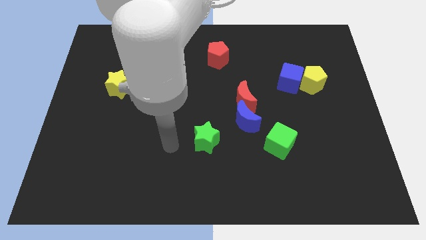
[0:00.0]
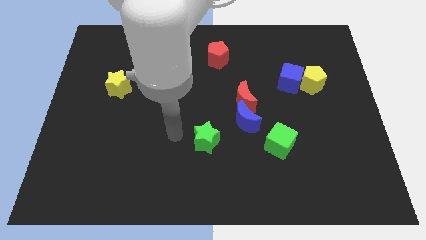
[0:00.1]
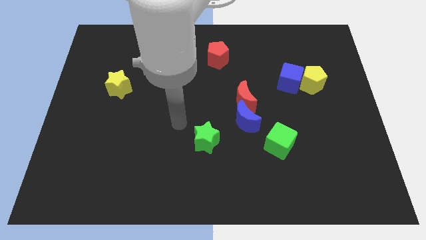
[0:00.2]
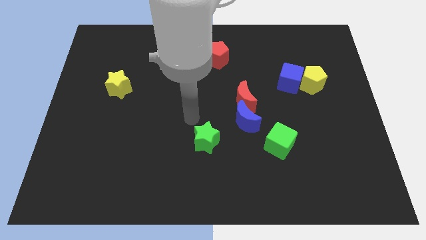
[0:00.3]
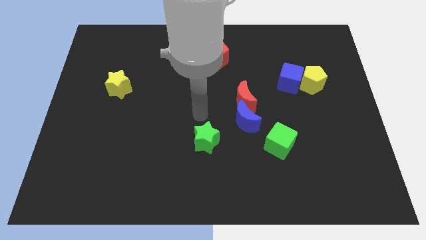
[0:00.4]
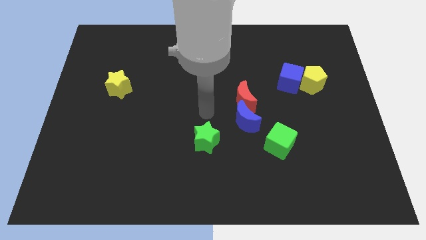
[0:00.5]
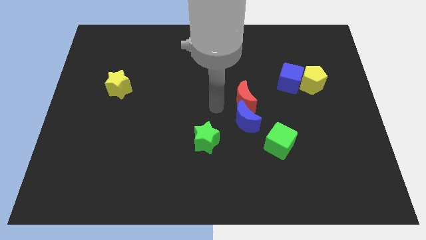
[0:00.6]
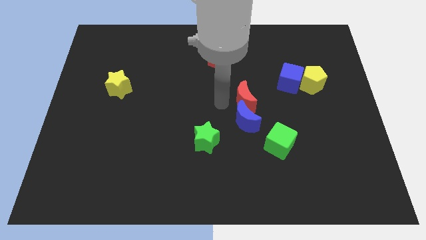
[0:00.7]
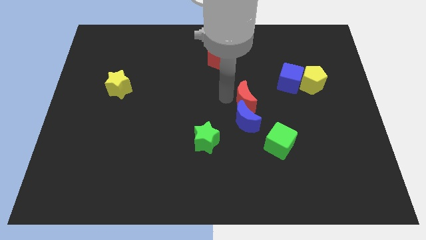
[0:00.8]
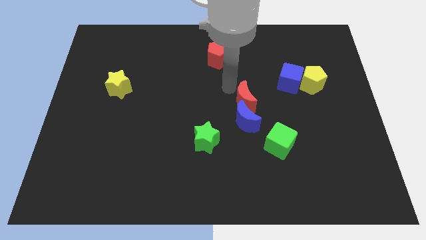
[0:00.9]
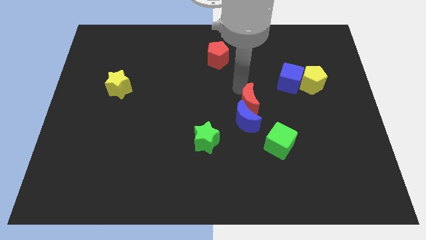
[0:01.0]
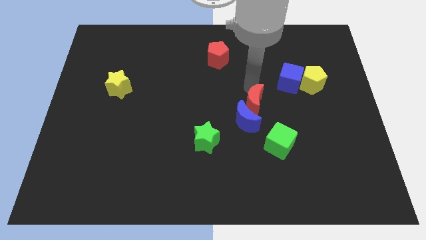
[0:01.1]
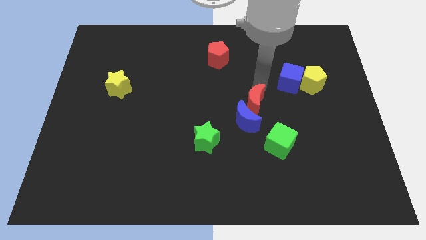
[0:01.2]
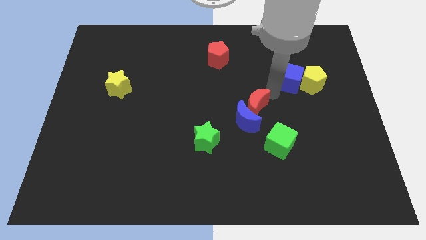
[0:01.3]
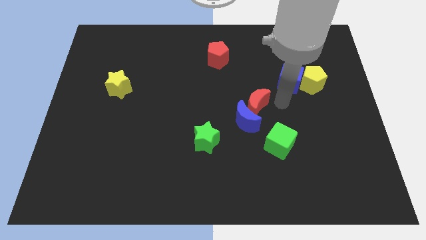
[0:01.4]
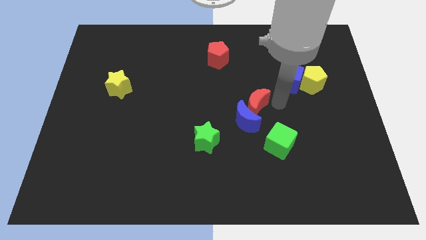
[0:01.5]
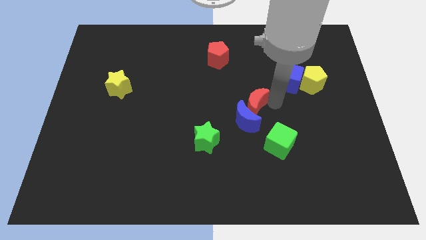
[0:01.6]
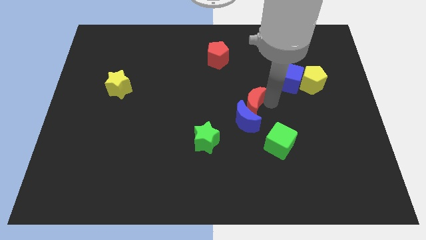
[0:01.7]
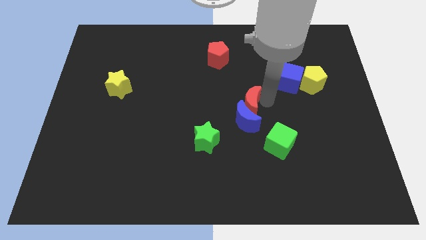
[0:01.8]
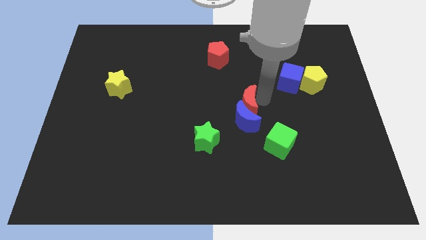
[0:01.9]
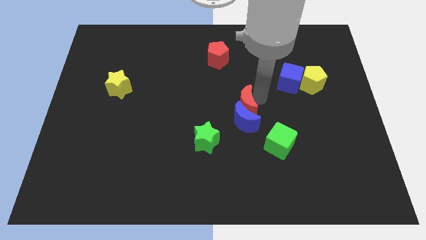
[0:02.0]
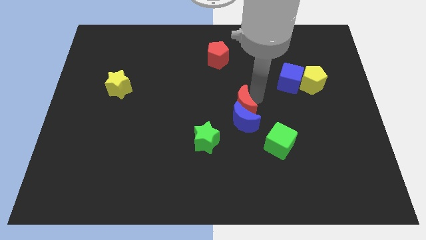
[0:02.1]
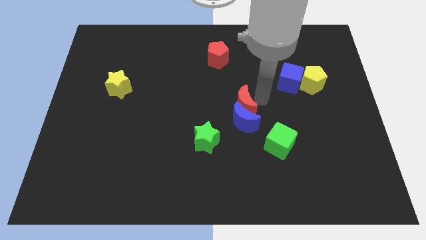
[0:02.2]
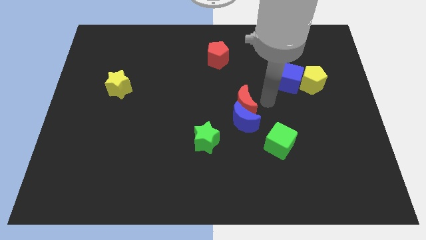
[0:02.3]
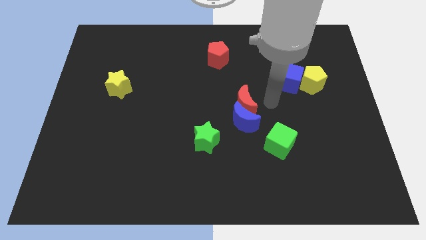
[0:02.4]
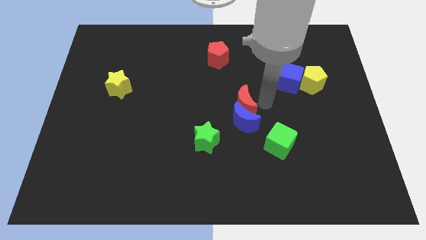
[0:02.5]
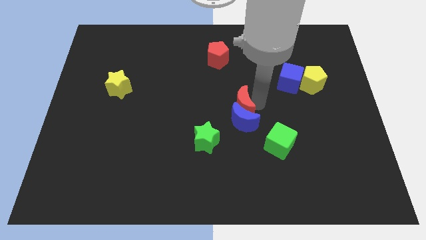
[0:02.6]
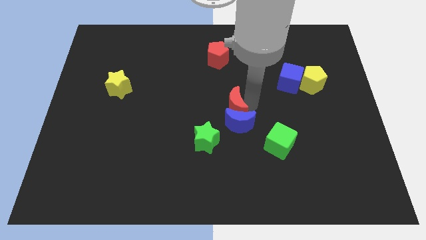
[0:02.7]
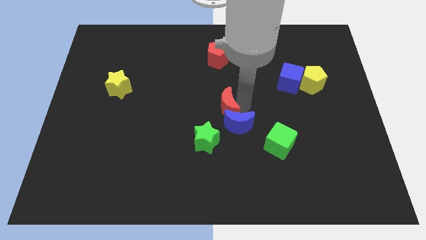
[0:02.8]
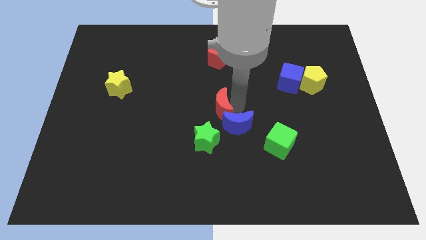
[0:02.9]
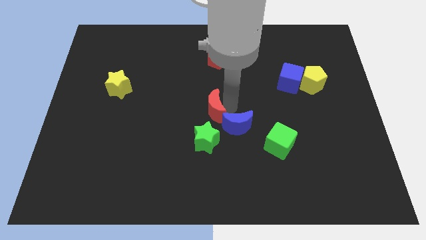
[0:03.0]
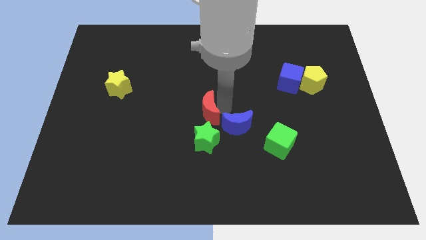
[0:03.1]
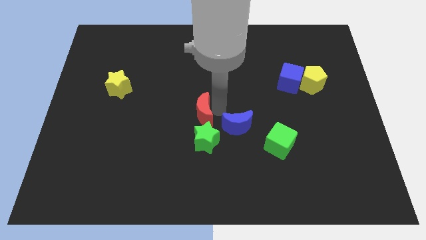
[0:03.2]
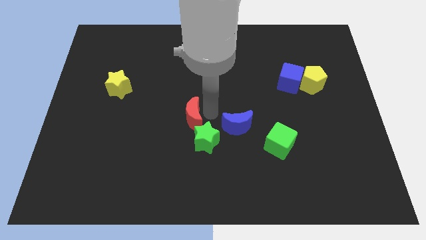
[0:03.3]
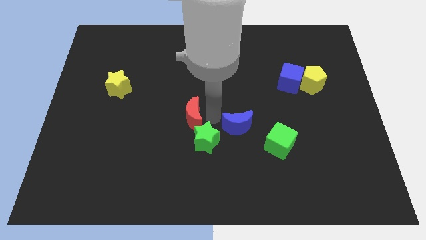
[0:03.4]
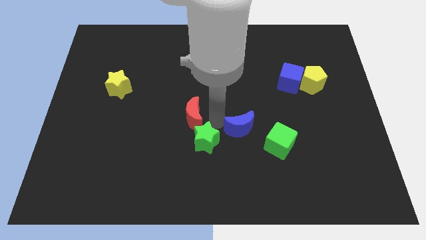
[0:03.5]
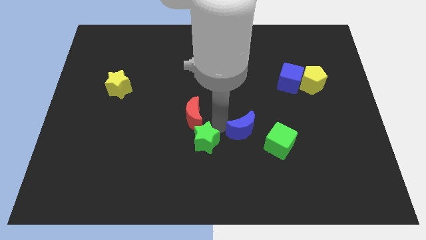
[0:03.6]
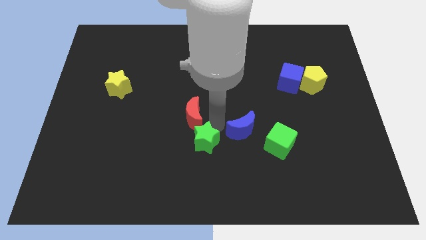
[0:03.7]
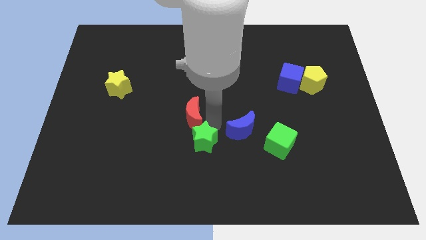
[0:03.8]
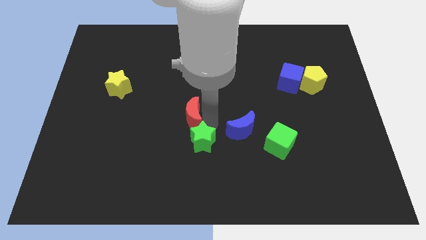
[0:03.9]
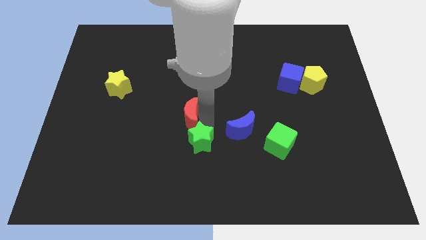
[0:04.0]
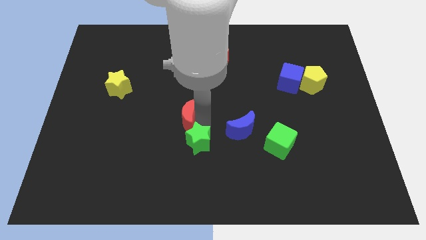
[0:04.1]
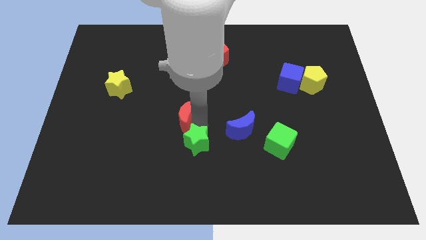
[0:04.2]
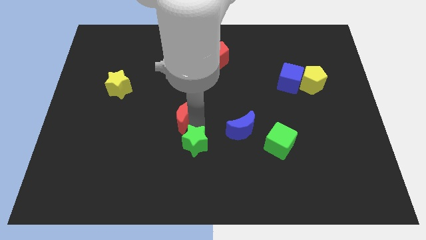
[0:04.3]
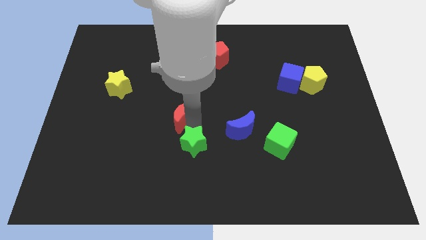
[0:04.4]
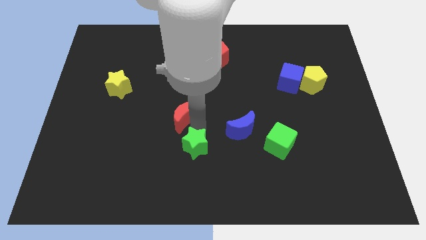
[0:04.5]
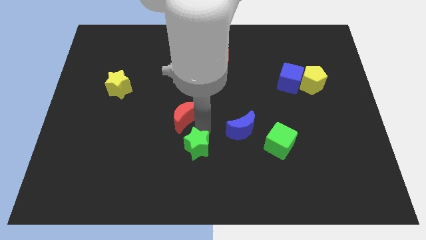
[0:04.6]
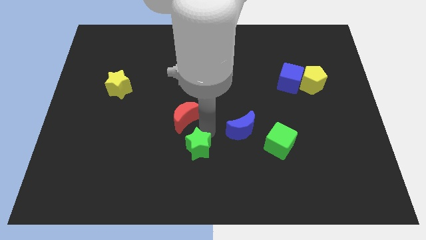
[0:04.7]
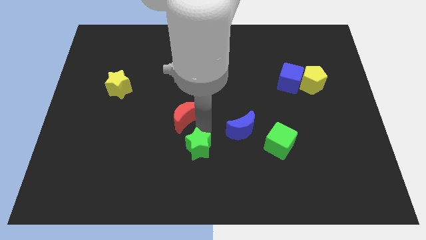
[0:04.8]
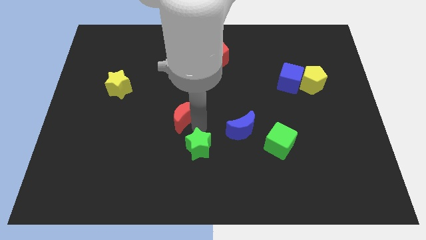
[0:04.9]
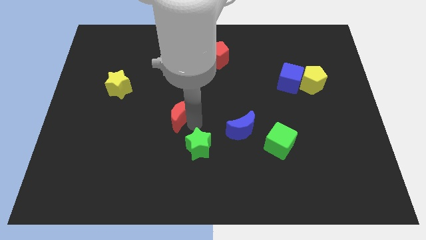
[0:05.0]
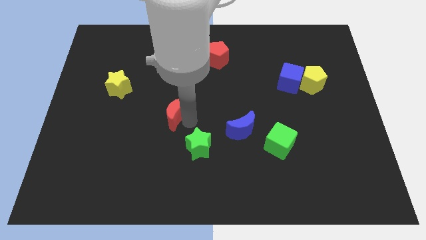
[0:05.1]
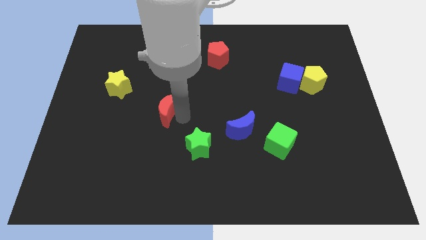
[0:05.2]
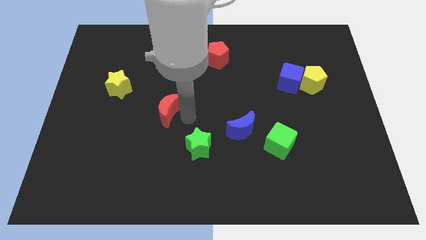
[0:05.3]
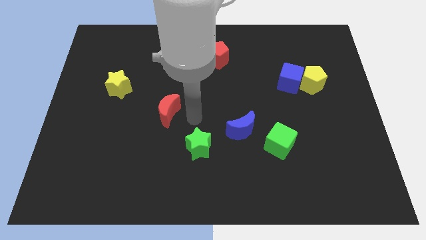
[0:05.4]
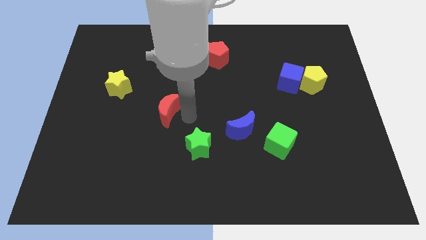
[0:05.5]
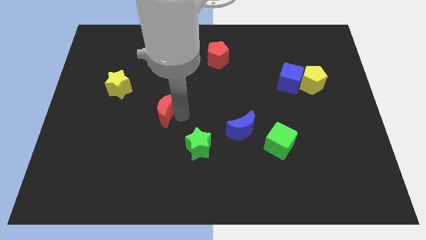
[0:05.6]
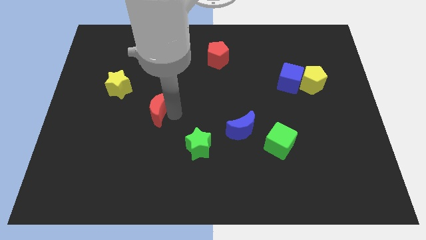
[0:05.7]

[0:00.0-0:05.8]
put the red moon diagonally down and to the right of the yellow star

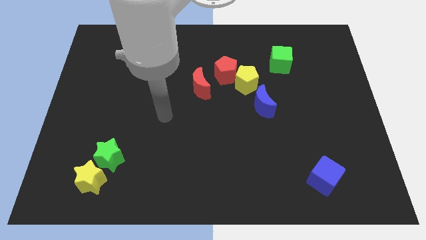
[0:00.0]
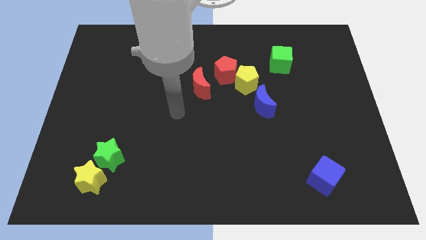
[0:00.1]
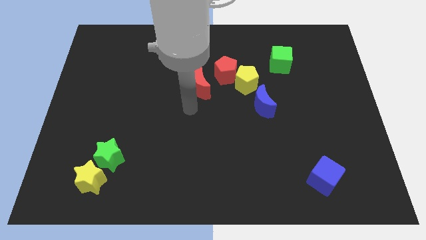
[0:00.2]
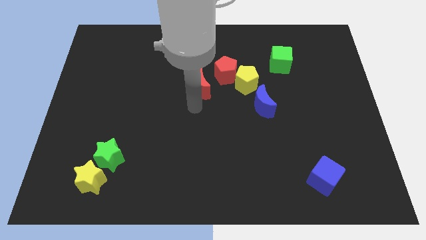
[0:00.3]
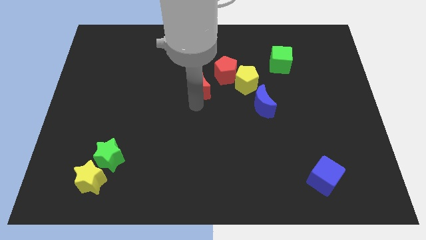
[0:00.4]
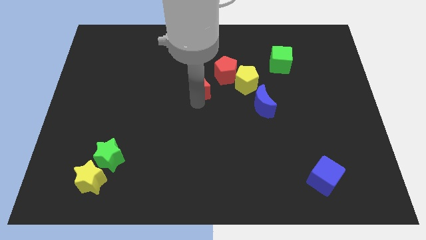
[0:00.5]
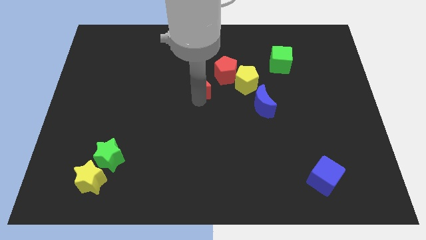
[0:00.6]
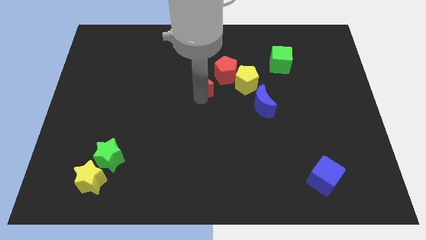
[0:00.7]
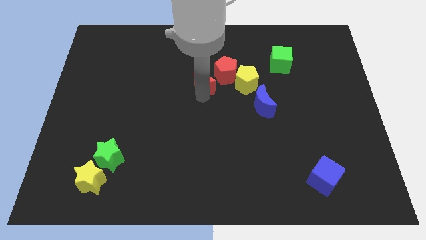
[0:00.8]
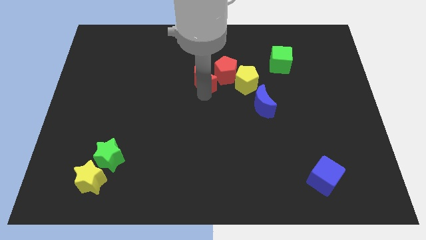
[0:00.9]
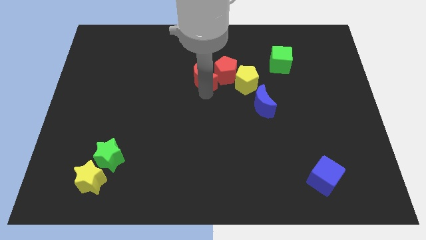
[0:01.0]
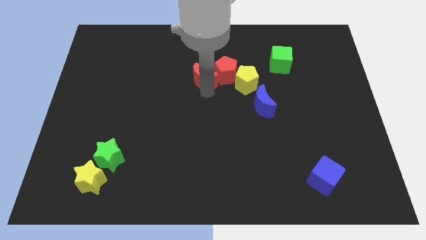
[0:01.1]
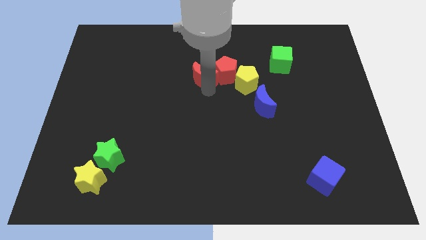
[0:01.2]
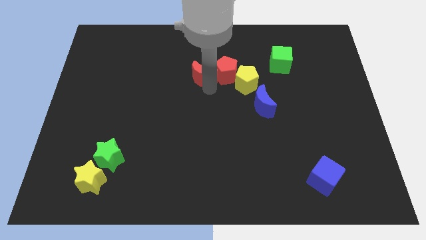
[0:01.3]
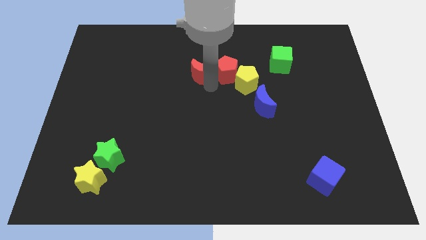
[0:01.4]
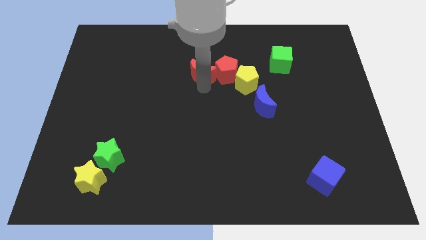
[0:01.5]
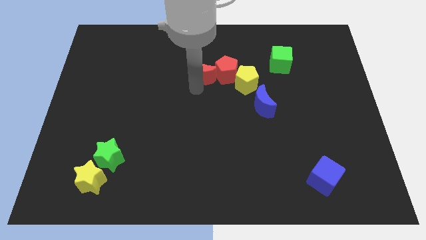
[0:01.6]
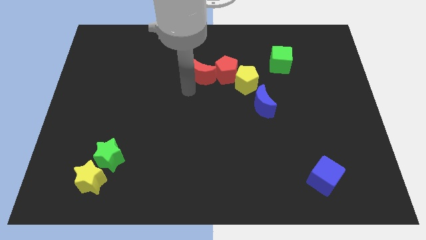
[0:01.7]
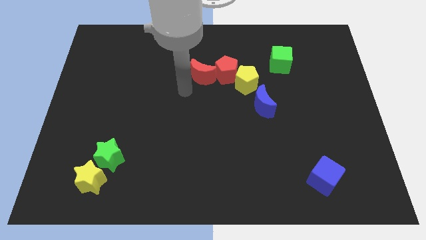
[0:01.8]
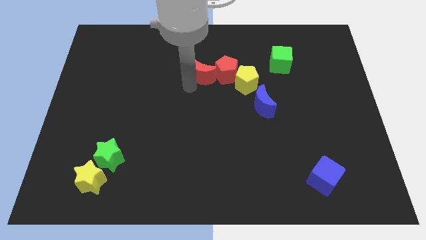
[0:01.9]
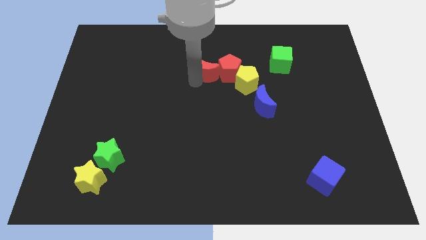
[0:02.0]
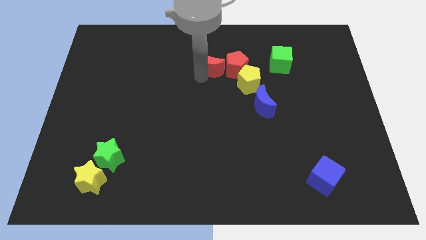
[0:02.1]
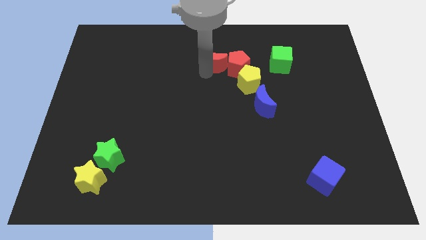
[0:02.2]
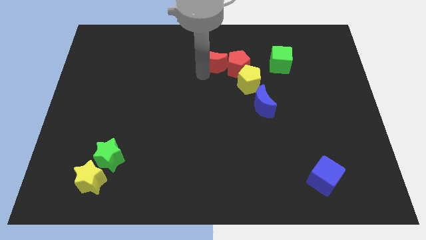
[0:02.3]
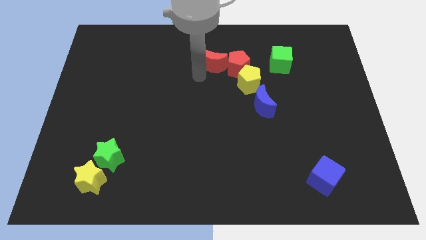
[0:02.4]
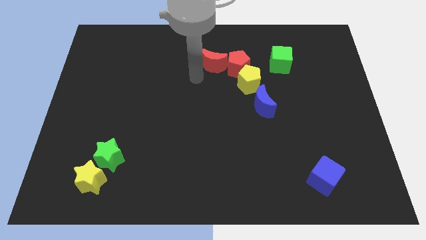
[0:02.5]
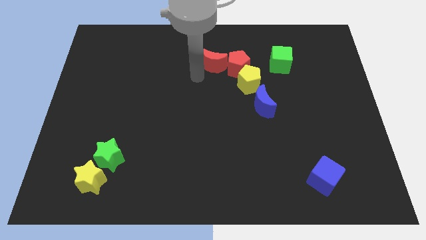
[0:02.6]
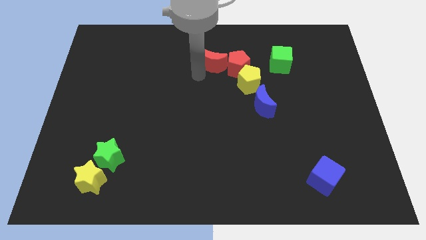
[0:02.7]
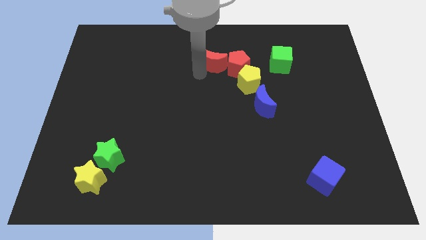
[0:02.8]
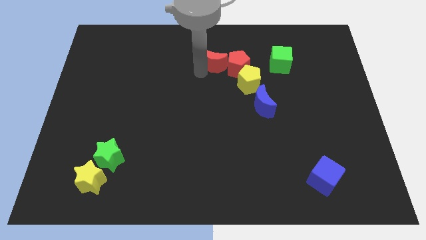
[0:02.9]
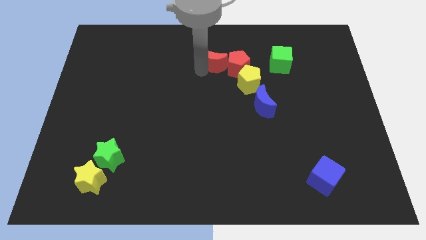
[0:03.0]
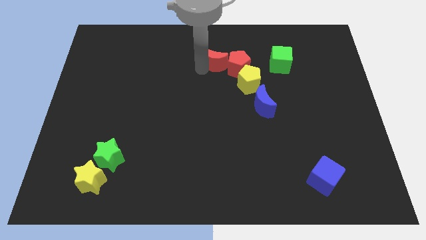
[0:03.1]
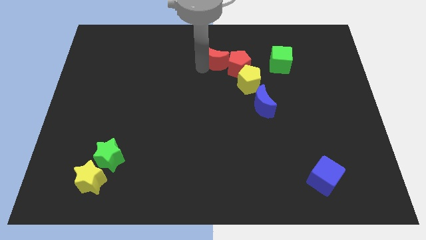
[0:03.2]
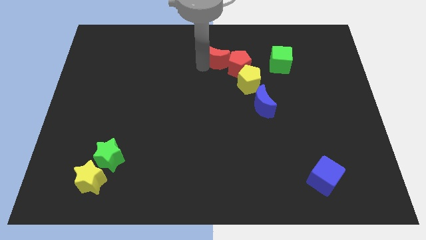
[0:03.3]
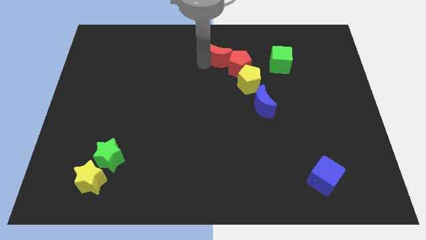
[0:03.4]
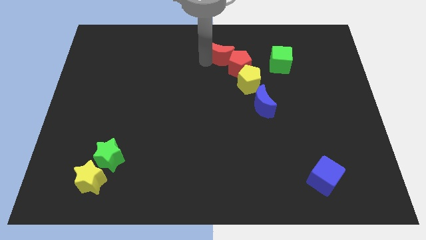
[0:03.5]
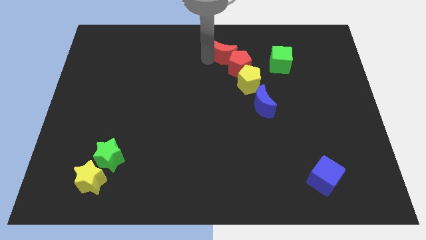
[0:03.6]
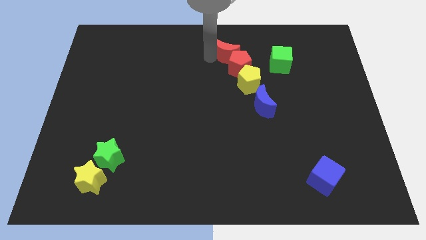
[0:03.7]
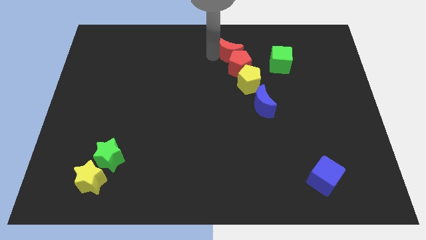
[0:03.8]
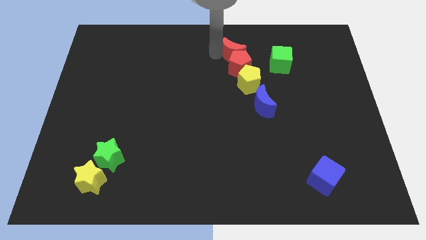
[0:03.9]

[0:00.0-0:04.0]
push the red moon to the top right of the red pentagon
